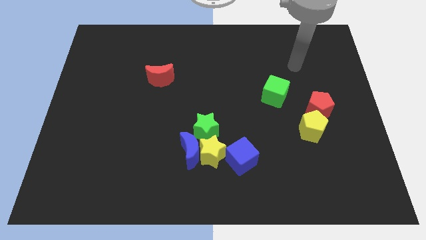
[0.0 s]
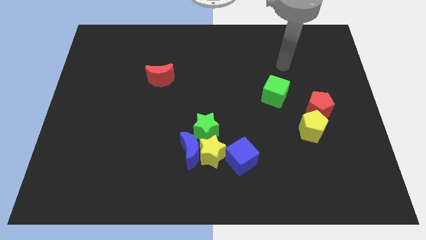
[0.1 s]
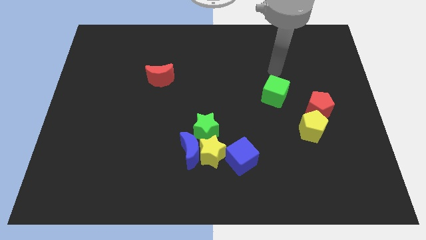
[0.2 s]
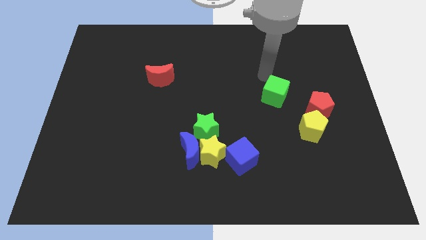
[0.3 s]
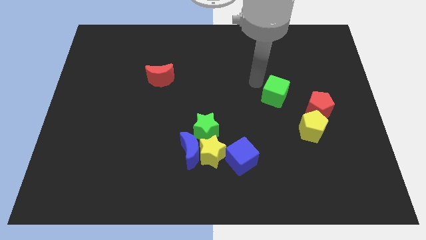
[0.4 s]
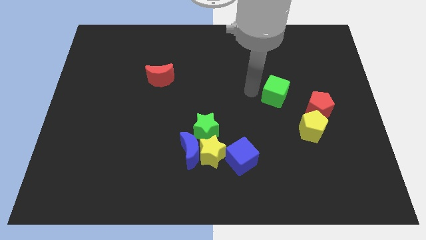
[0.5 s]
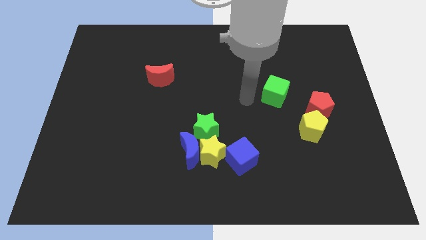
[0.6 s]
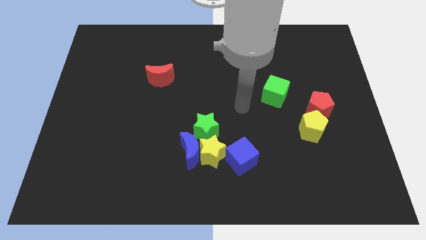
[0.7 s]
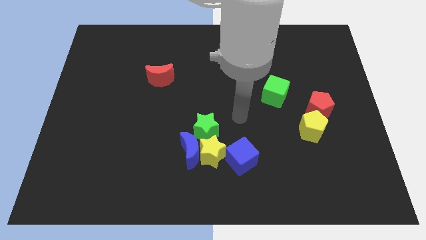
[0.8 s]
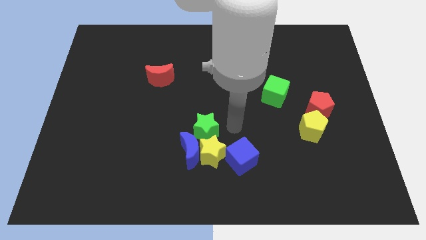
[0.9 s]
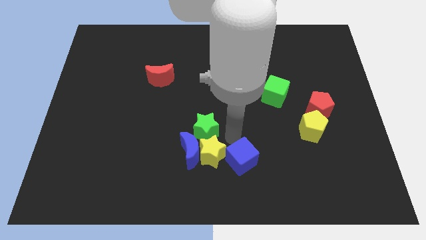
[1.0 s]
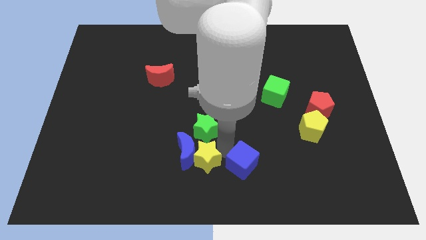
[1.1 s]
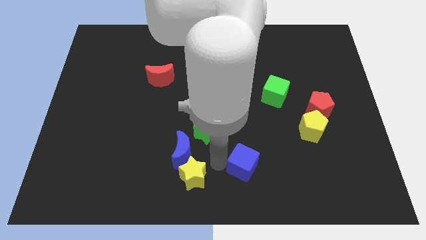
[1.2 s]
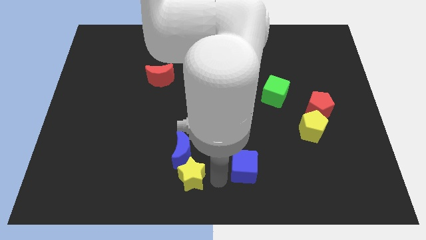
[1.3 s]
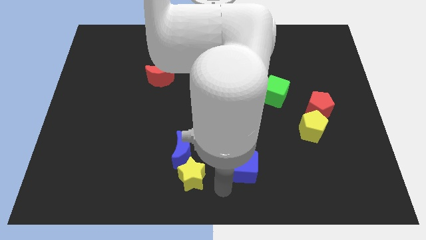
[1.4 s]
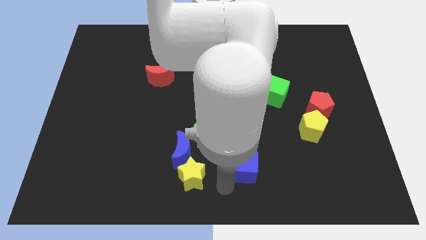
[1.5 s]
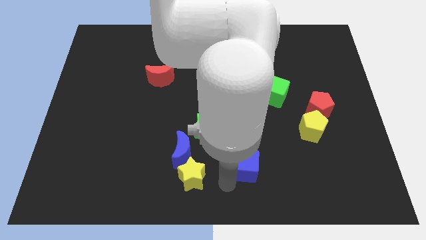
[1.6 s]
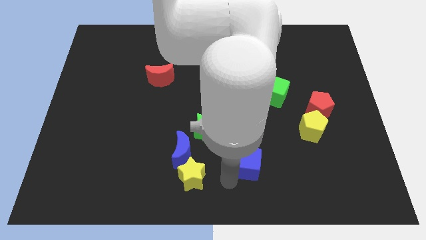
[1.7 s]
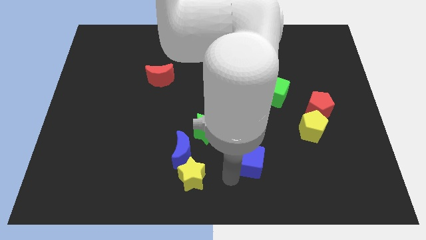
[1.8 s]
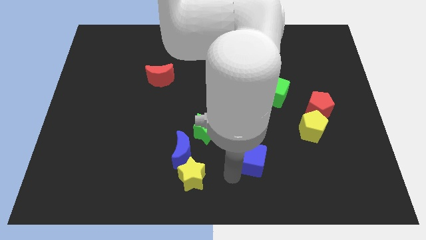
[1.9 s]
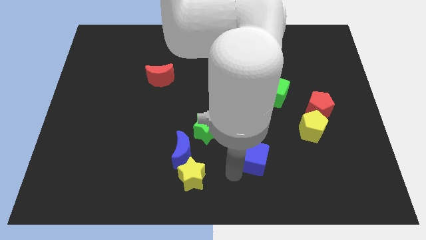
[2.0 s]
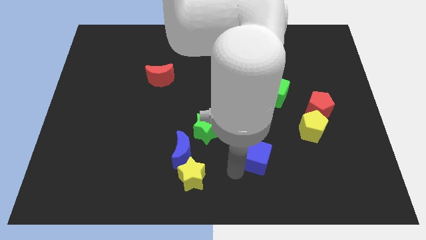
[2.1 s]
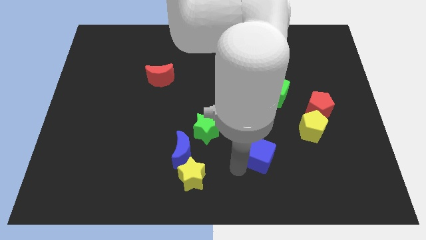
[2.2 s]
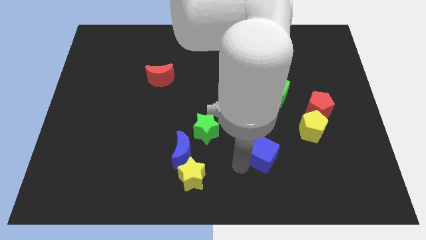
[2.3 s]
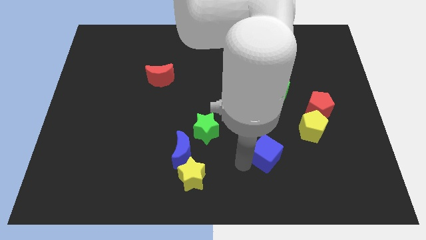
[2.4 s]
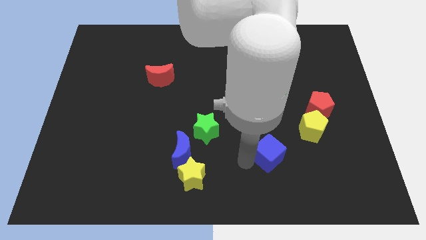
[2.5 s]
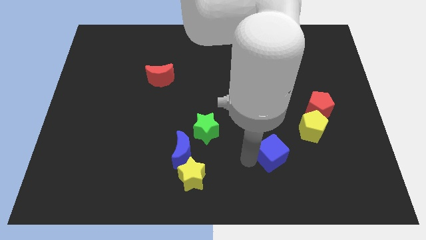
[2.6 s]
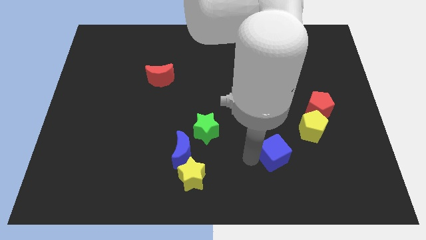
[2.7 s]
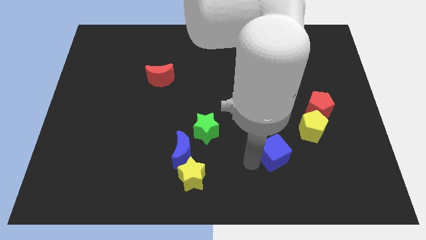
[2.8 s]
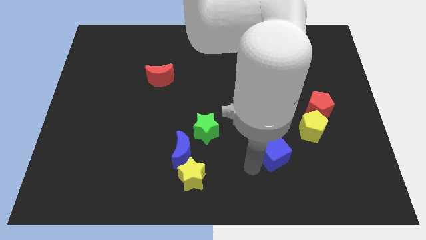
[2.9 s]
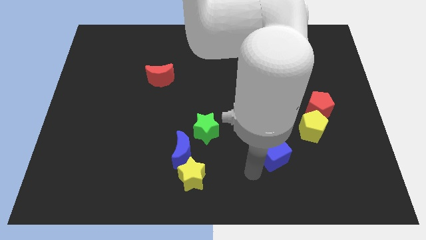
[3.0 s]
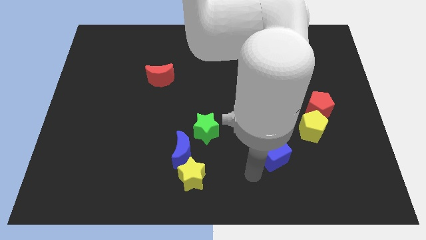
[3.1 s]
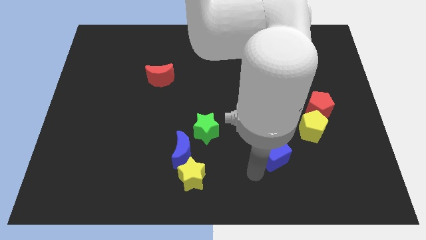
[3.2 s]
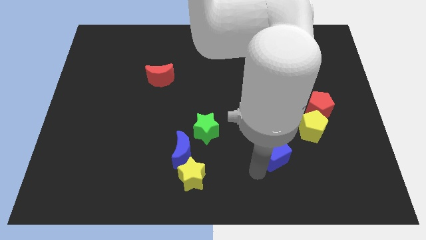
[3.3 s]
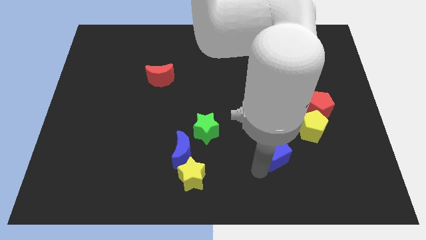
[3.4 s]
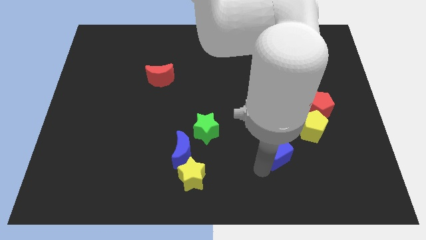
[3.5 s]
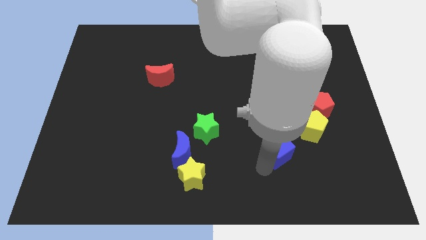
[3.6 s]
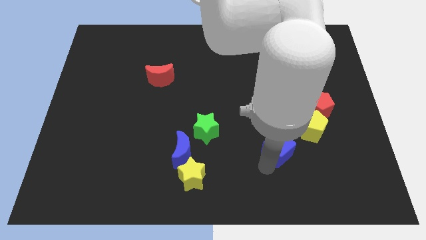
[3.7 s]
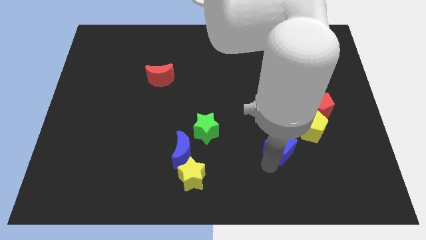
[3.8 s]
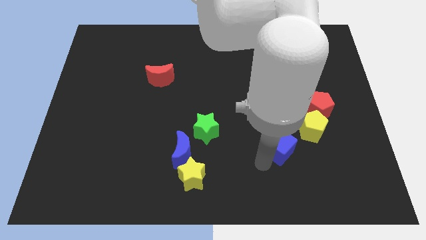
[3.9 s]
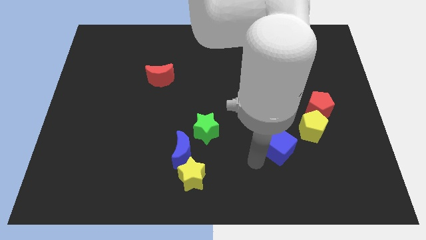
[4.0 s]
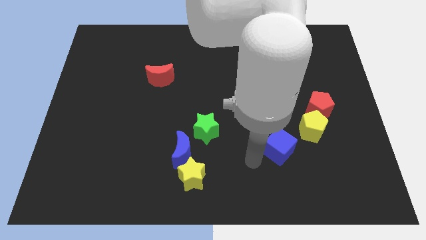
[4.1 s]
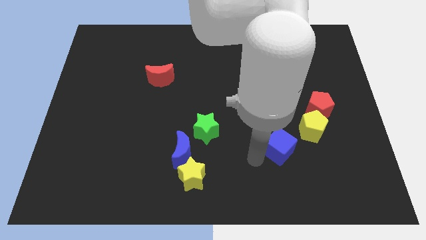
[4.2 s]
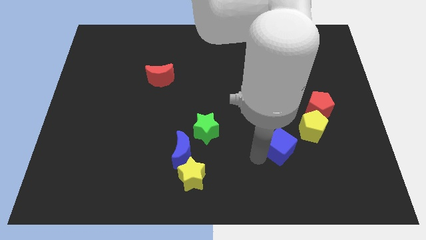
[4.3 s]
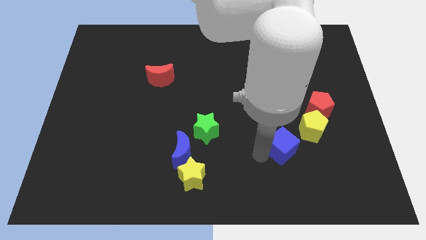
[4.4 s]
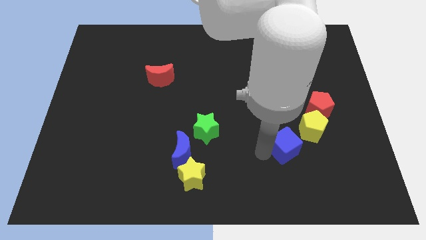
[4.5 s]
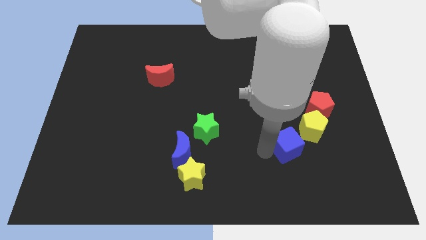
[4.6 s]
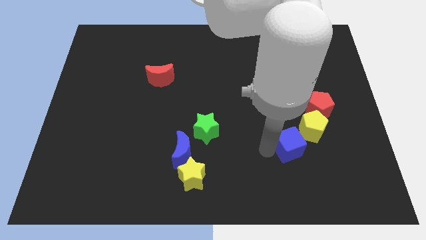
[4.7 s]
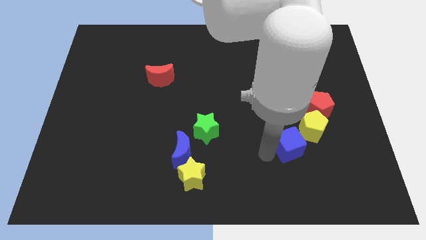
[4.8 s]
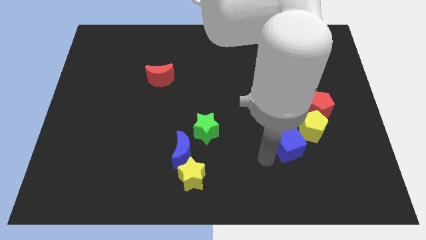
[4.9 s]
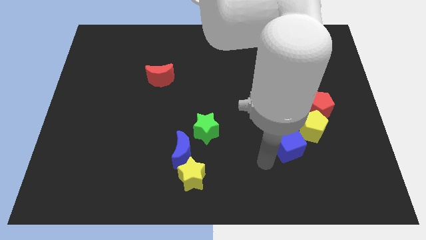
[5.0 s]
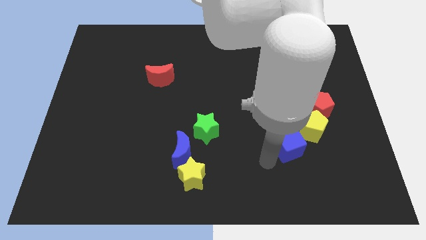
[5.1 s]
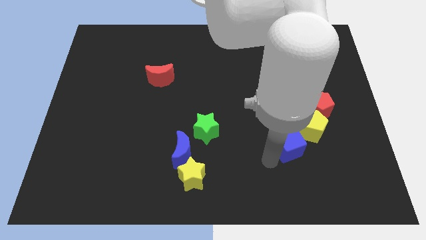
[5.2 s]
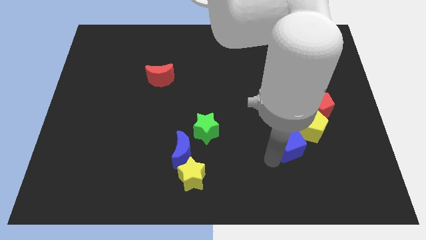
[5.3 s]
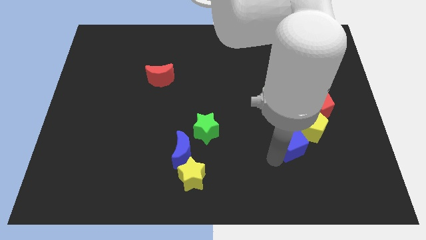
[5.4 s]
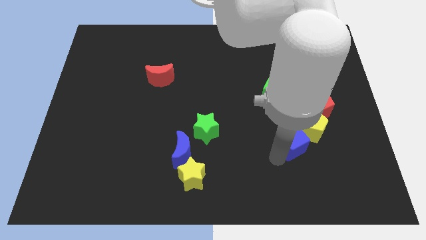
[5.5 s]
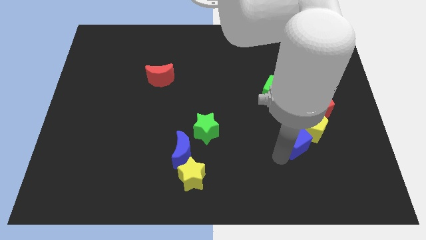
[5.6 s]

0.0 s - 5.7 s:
put the blue cube towards the yellow pentagon

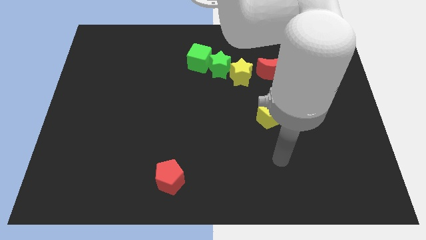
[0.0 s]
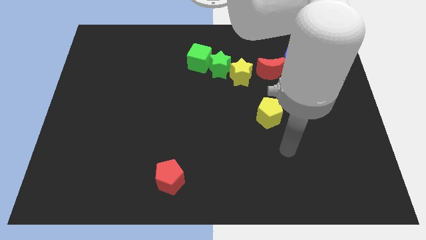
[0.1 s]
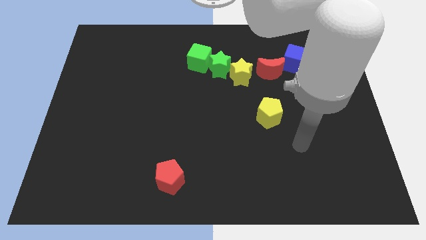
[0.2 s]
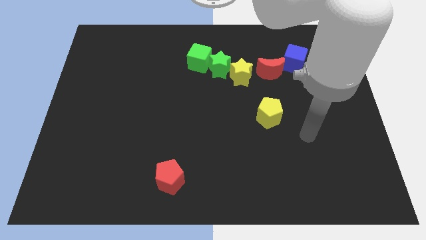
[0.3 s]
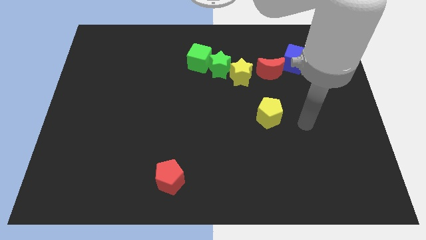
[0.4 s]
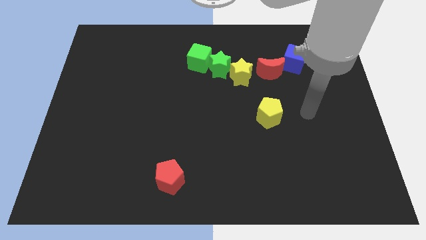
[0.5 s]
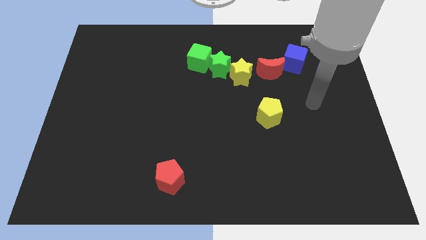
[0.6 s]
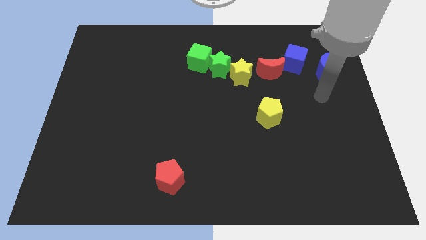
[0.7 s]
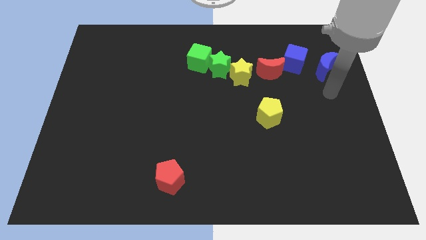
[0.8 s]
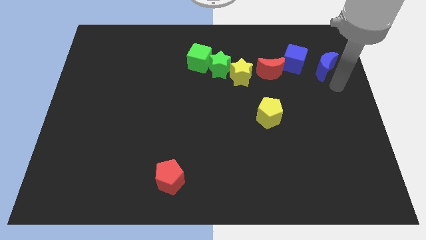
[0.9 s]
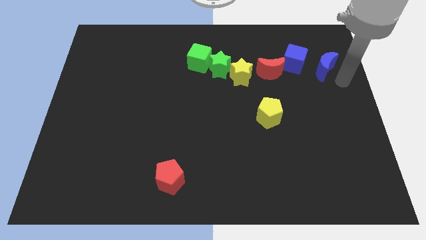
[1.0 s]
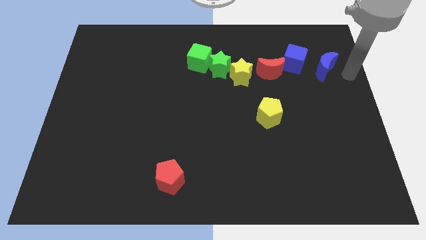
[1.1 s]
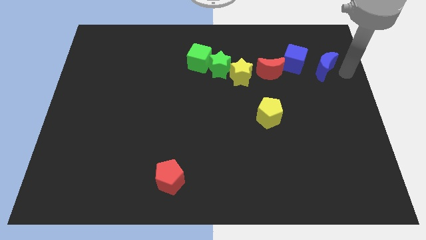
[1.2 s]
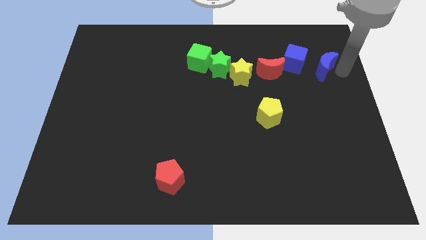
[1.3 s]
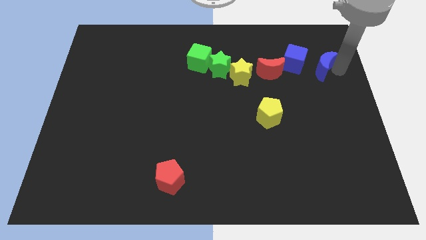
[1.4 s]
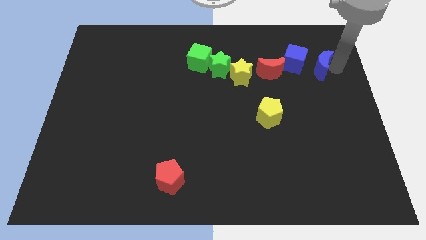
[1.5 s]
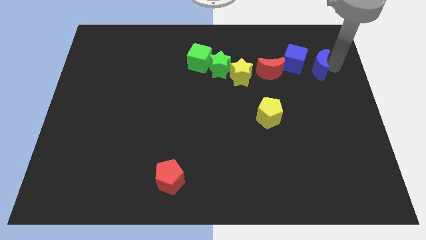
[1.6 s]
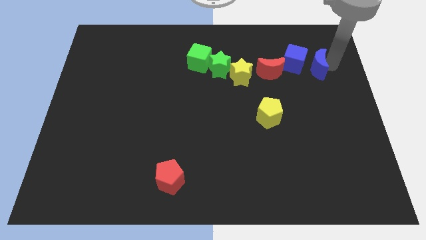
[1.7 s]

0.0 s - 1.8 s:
slide the blue moon to the blue cube
